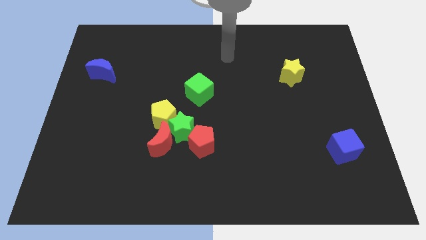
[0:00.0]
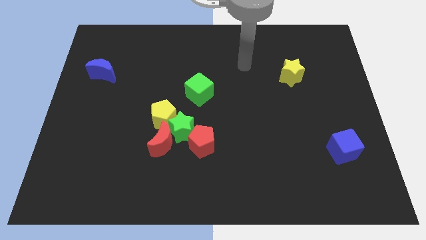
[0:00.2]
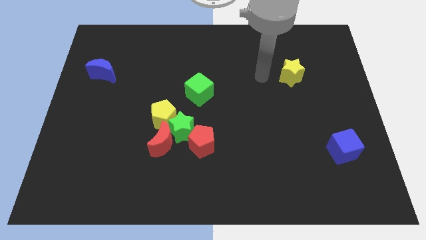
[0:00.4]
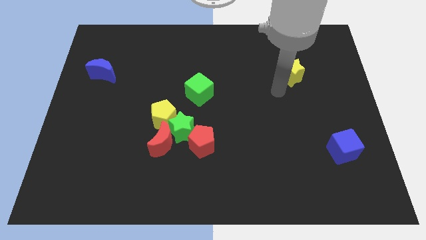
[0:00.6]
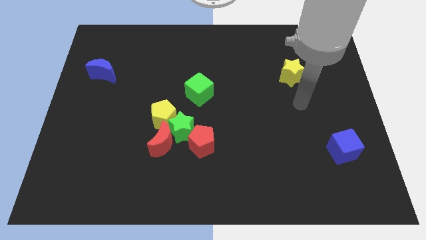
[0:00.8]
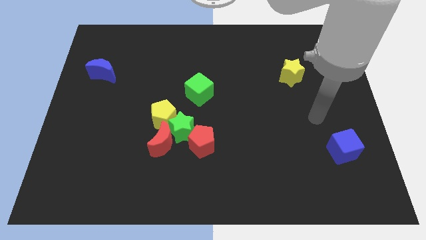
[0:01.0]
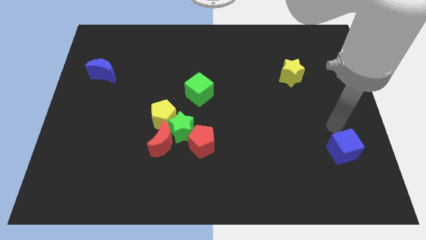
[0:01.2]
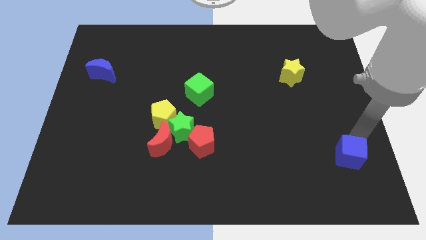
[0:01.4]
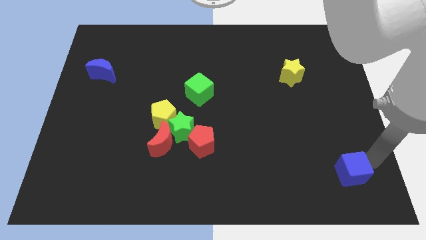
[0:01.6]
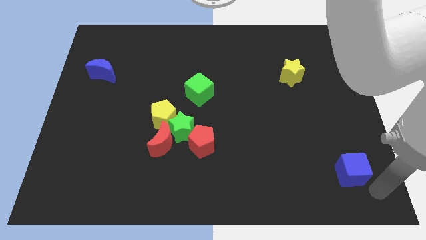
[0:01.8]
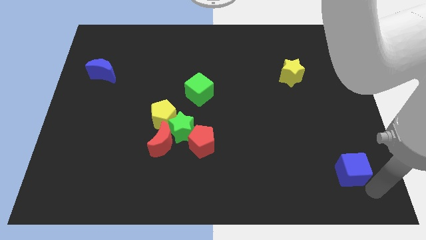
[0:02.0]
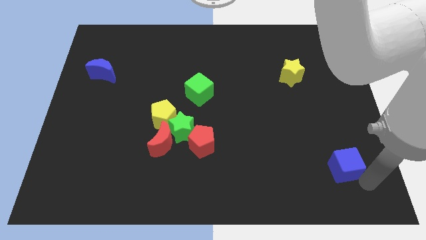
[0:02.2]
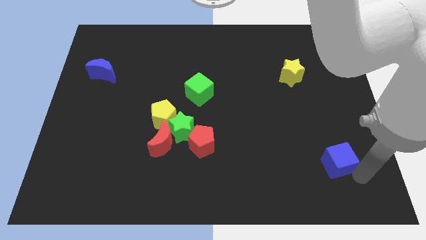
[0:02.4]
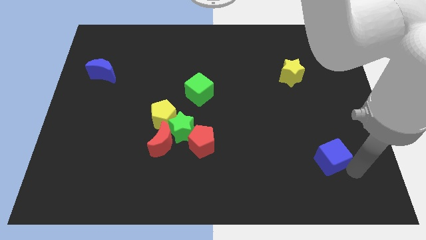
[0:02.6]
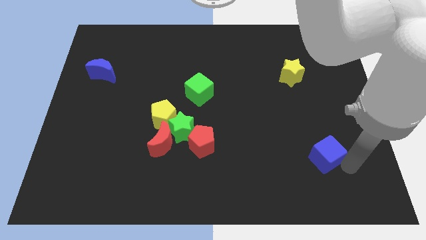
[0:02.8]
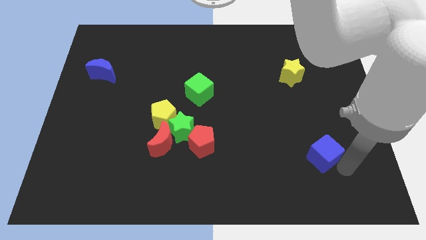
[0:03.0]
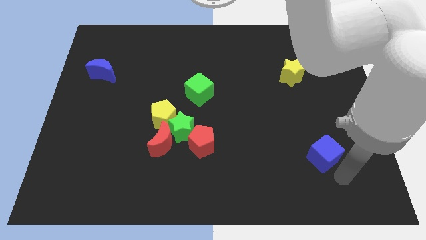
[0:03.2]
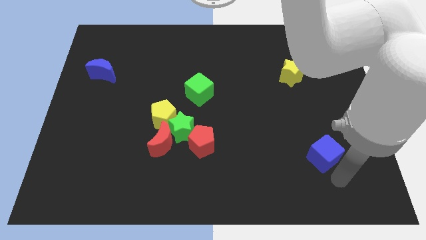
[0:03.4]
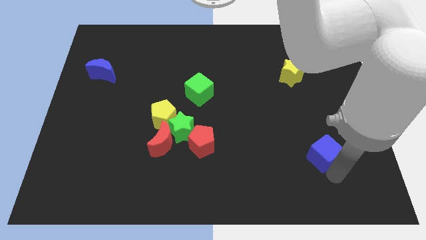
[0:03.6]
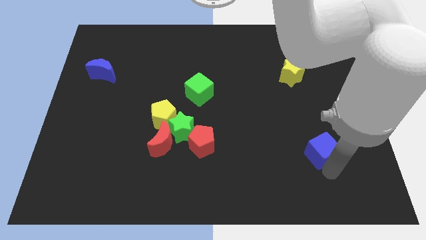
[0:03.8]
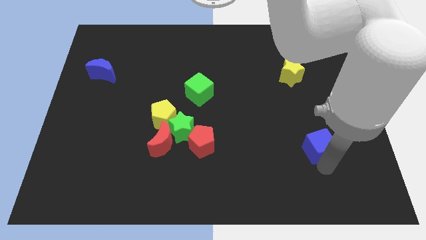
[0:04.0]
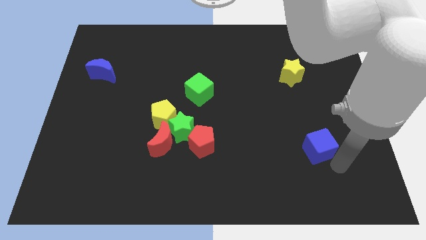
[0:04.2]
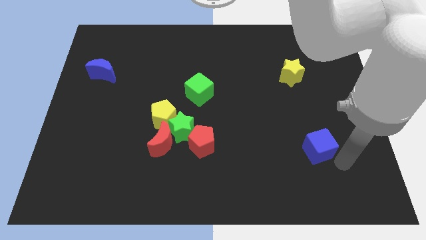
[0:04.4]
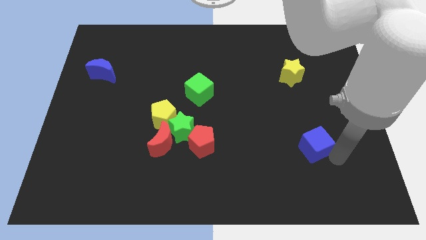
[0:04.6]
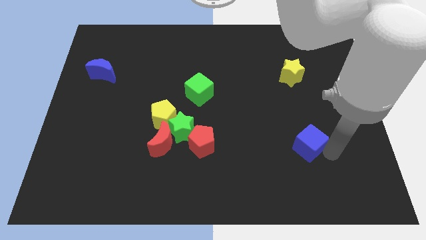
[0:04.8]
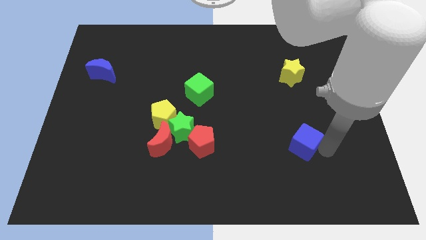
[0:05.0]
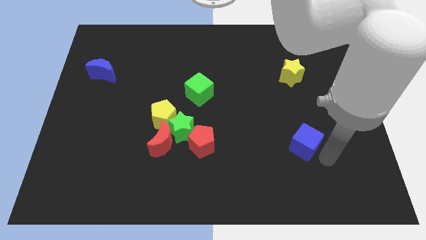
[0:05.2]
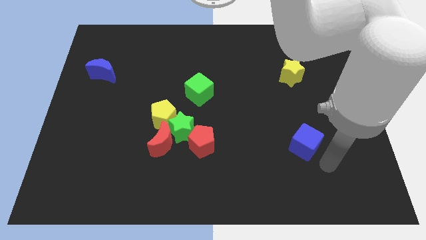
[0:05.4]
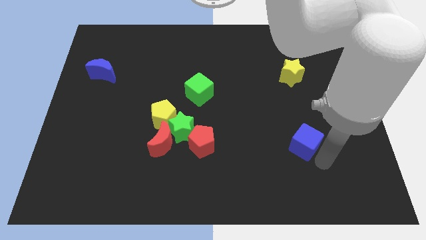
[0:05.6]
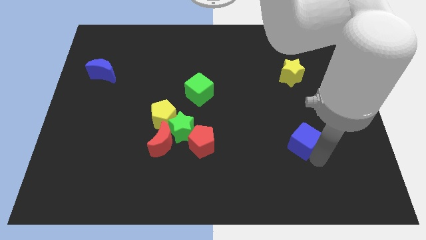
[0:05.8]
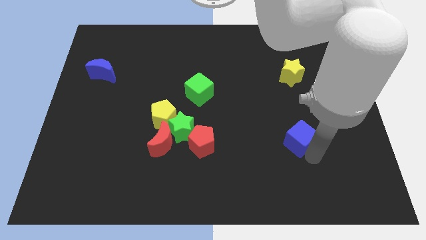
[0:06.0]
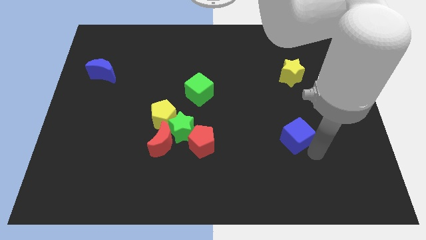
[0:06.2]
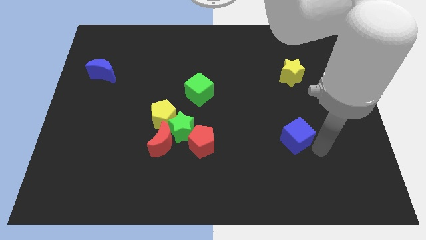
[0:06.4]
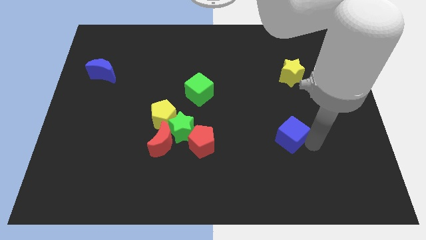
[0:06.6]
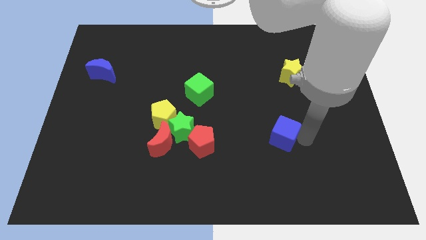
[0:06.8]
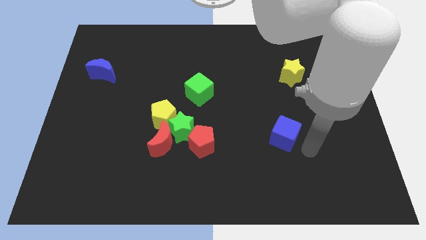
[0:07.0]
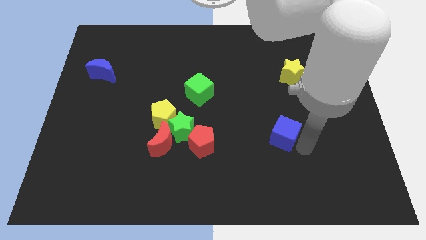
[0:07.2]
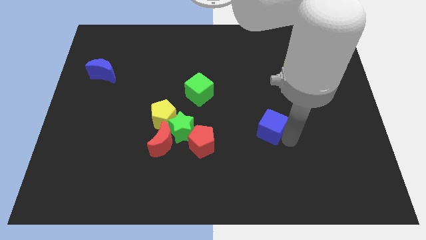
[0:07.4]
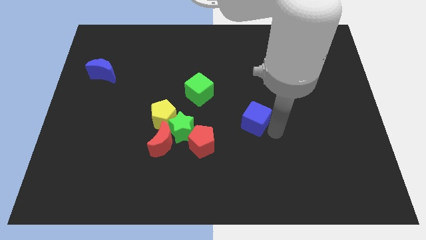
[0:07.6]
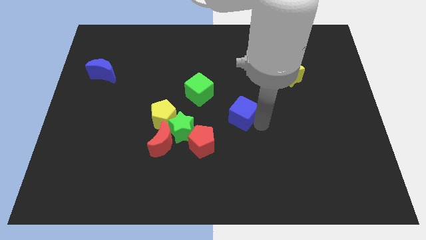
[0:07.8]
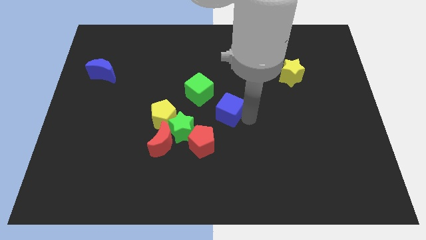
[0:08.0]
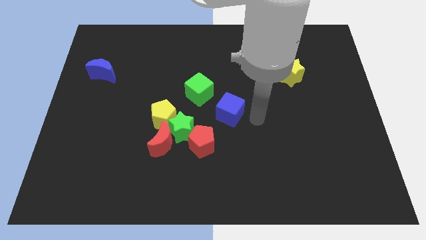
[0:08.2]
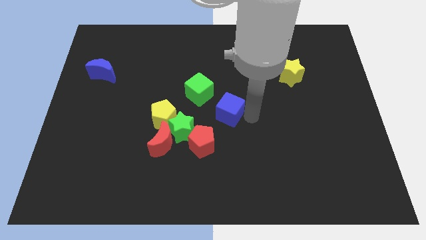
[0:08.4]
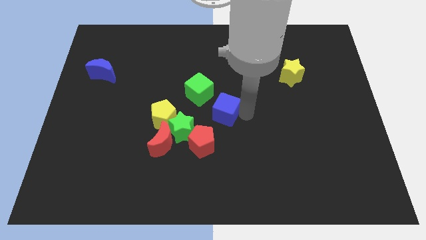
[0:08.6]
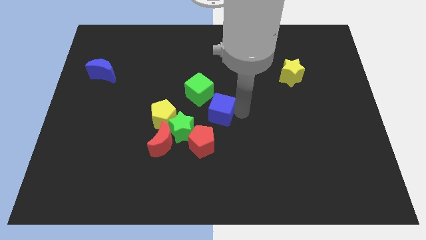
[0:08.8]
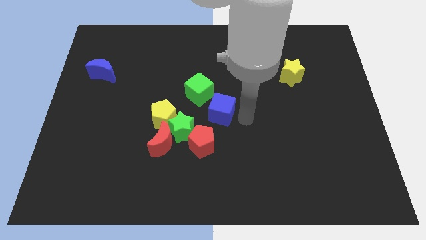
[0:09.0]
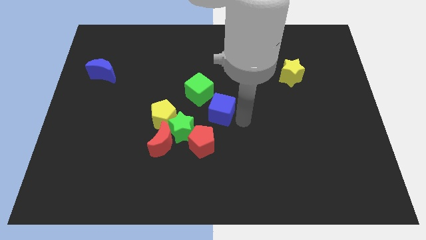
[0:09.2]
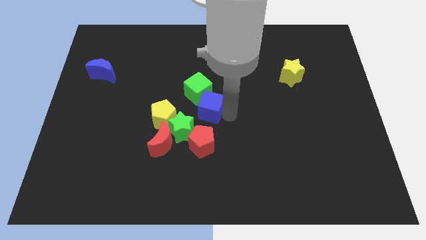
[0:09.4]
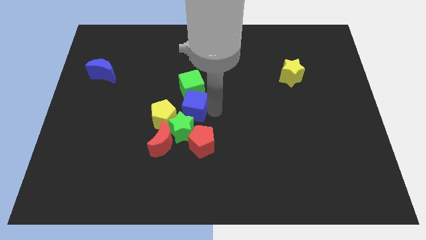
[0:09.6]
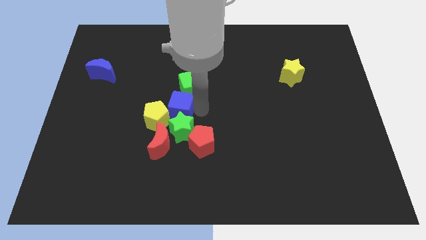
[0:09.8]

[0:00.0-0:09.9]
put the blue cube to the top of the red moon

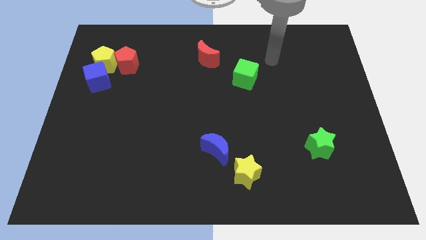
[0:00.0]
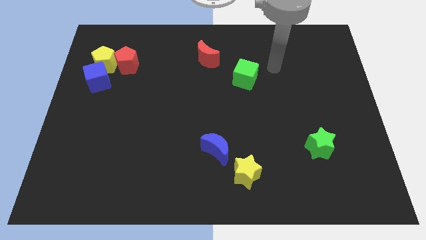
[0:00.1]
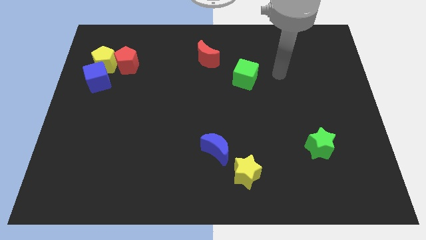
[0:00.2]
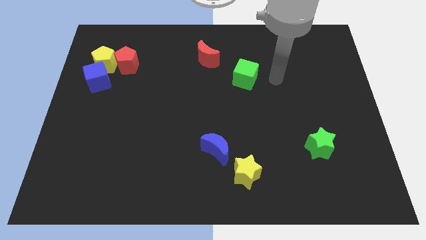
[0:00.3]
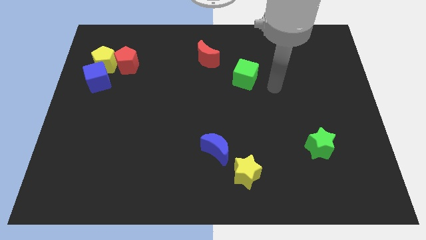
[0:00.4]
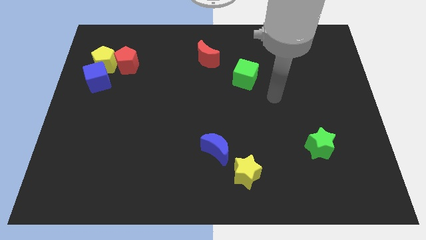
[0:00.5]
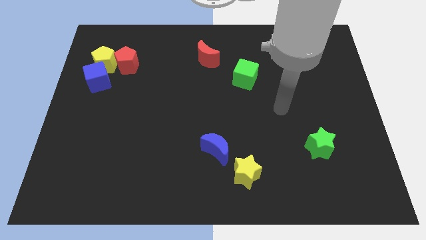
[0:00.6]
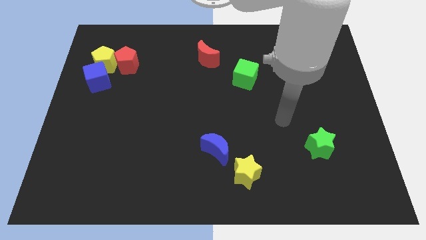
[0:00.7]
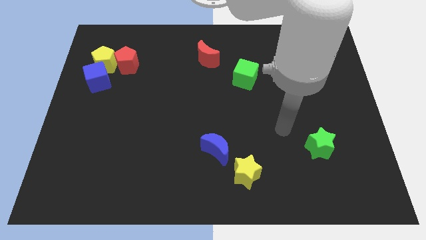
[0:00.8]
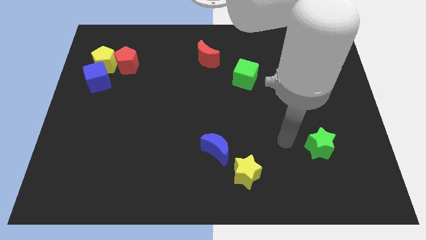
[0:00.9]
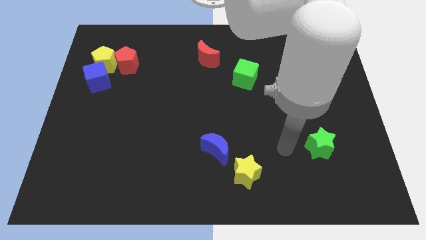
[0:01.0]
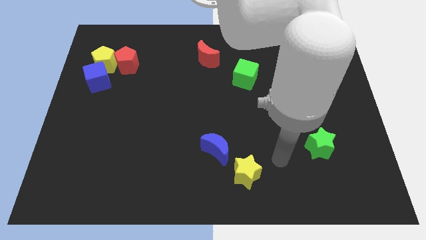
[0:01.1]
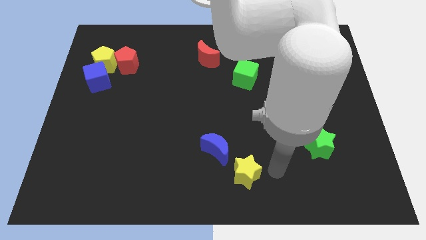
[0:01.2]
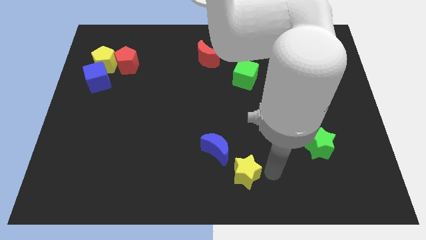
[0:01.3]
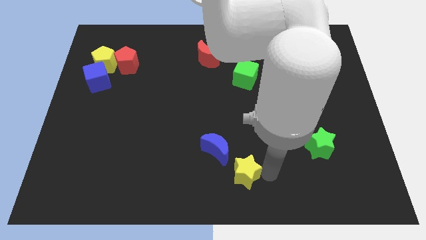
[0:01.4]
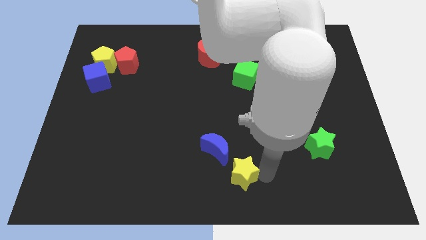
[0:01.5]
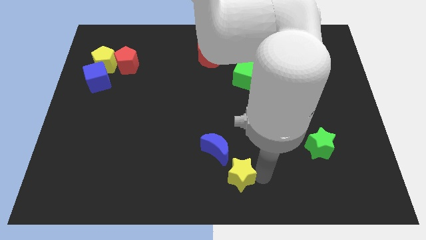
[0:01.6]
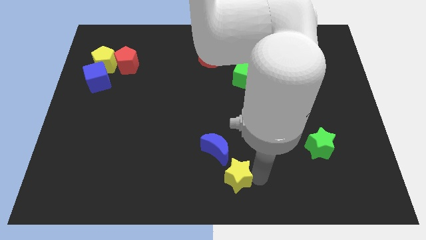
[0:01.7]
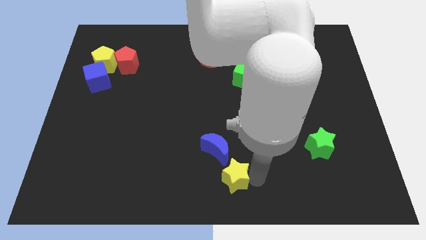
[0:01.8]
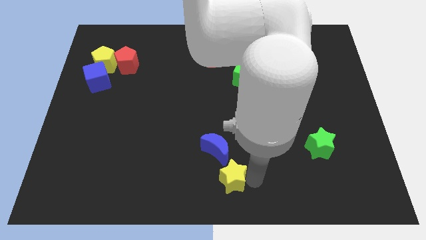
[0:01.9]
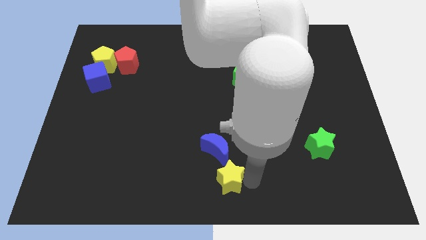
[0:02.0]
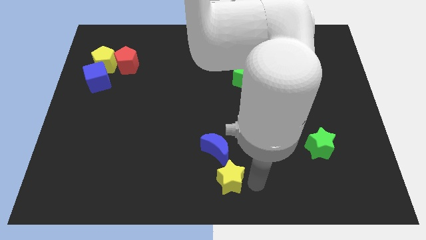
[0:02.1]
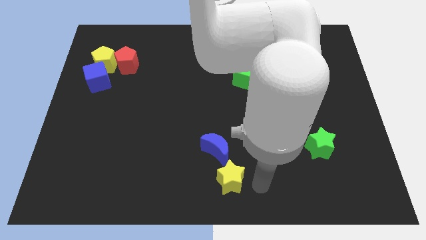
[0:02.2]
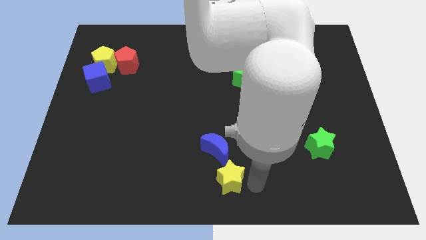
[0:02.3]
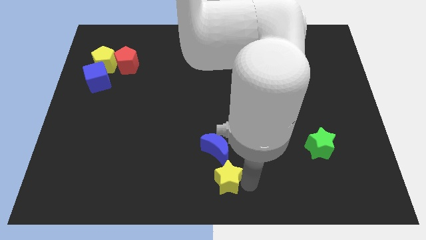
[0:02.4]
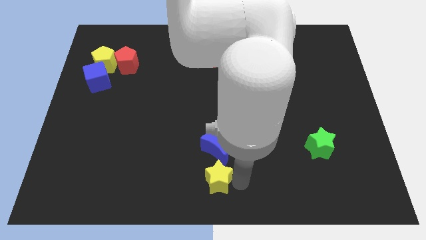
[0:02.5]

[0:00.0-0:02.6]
put the yellow star diagonally down and to the left of the blue moon
